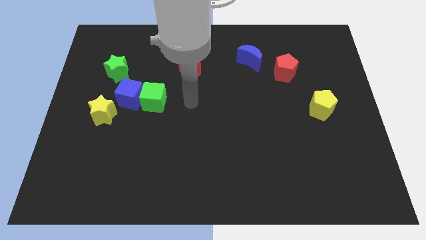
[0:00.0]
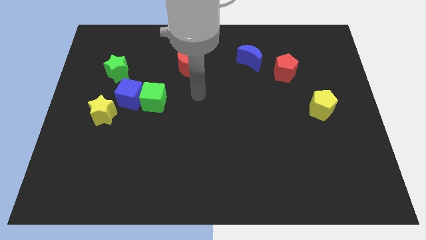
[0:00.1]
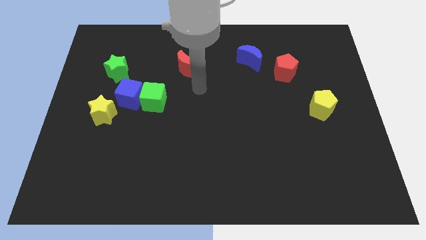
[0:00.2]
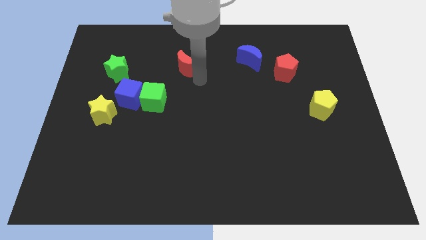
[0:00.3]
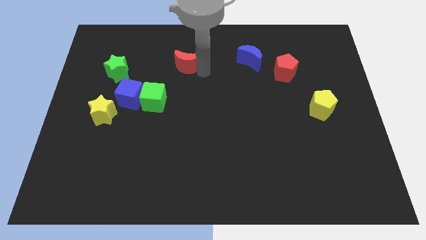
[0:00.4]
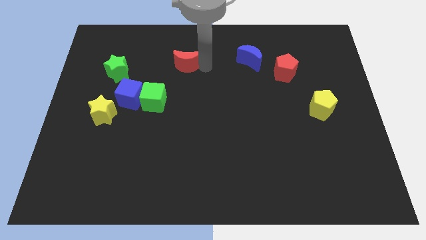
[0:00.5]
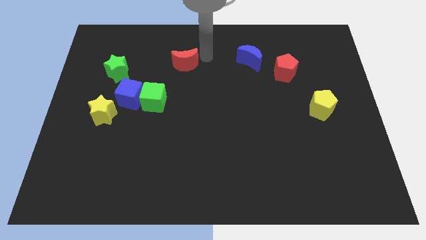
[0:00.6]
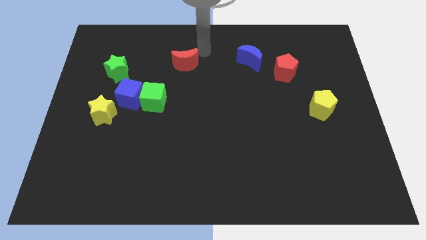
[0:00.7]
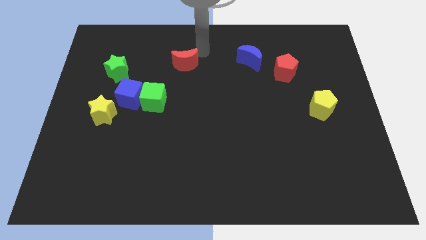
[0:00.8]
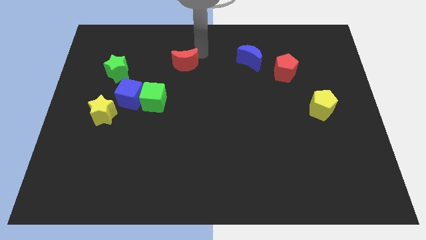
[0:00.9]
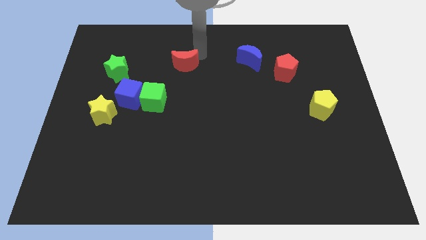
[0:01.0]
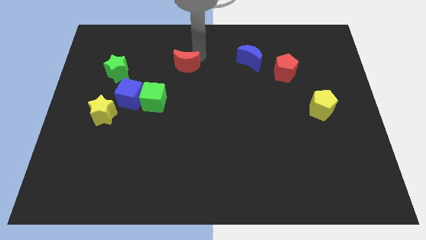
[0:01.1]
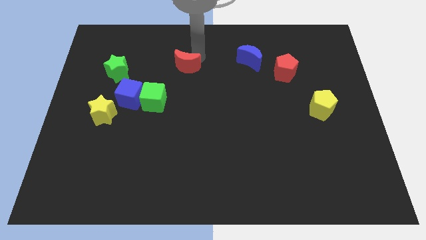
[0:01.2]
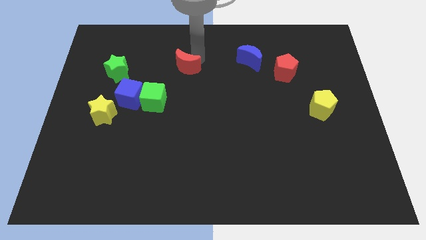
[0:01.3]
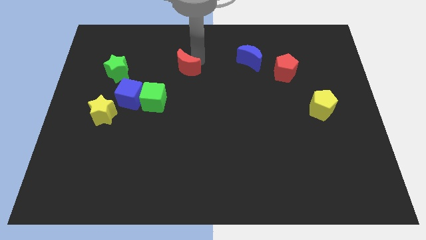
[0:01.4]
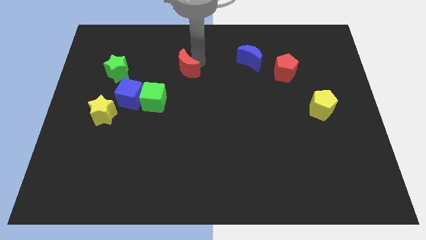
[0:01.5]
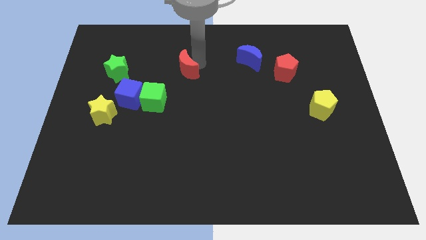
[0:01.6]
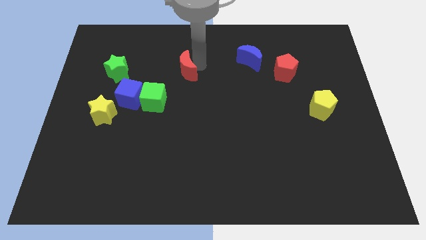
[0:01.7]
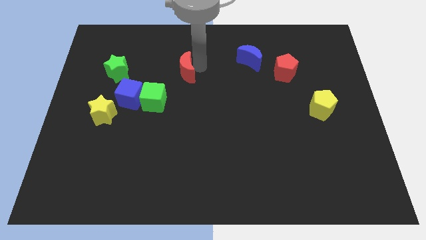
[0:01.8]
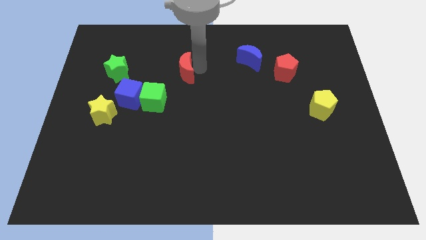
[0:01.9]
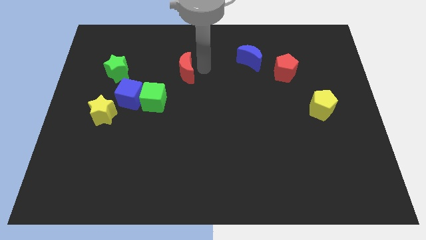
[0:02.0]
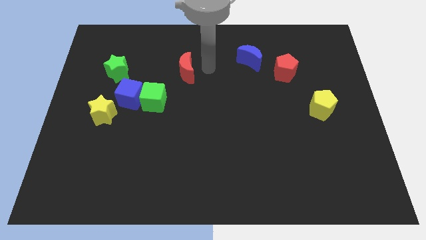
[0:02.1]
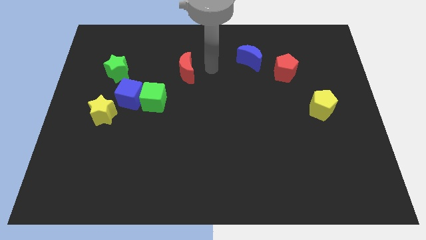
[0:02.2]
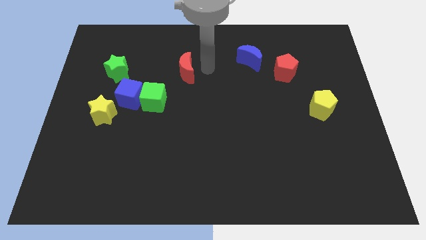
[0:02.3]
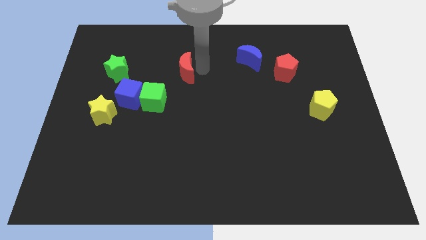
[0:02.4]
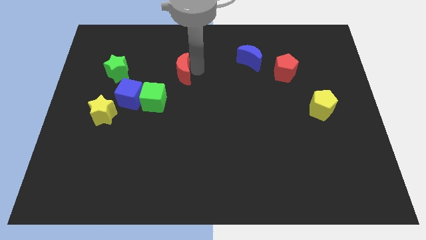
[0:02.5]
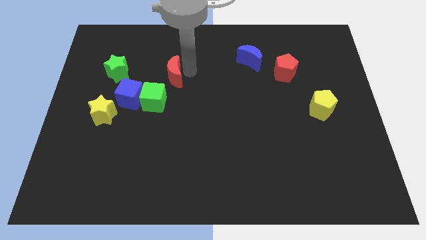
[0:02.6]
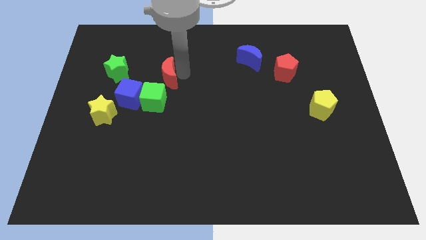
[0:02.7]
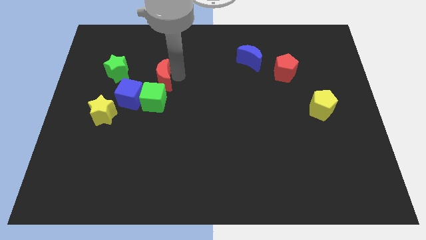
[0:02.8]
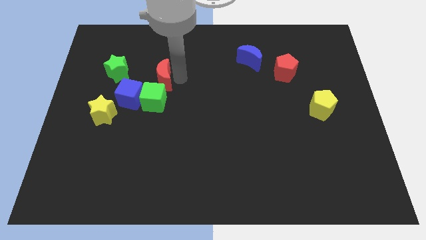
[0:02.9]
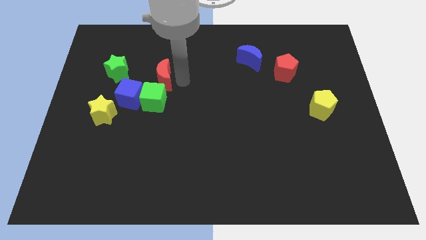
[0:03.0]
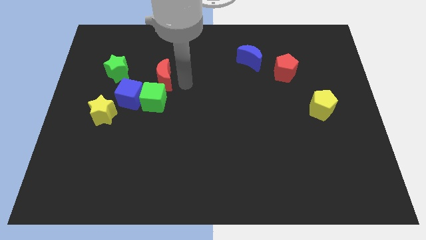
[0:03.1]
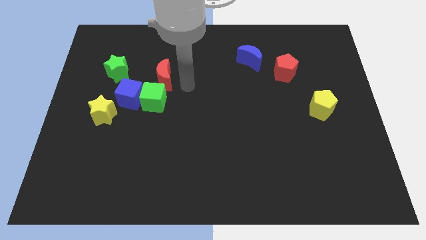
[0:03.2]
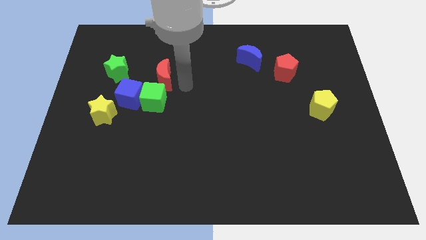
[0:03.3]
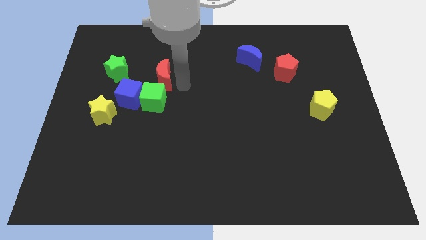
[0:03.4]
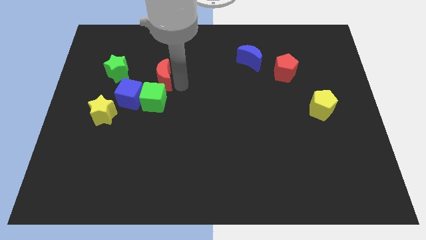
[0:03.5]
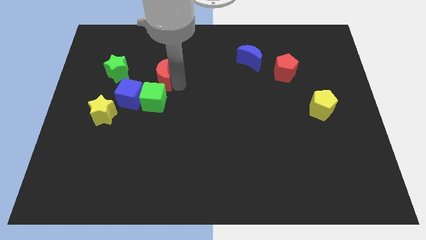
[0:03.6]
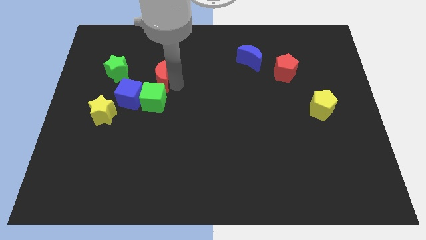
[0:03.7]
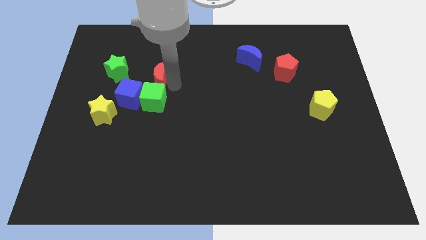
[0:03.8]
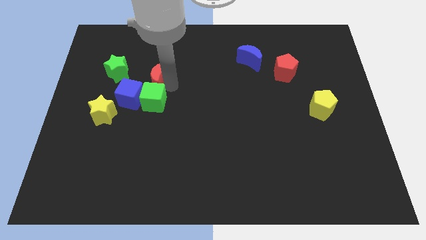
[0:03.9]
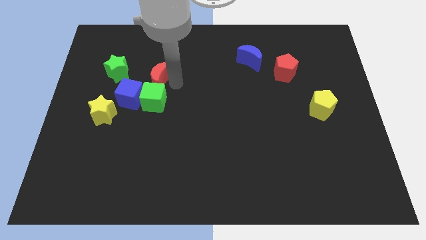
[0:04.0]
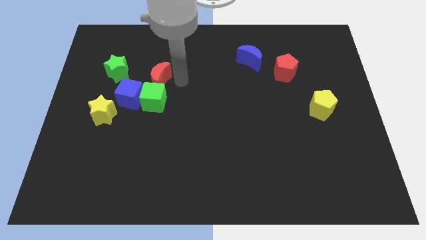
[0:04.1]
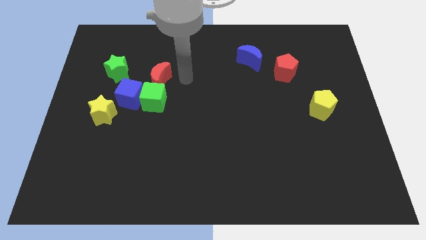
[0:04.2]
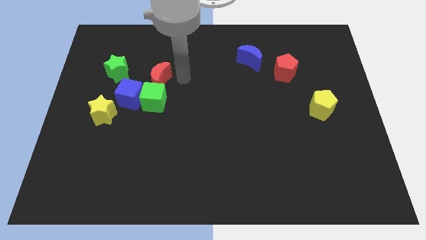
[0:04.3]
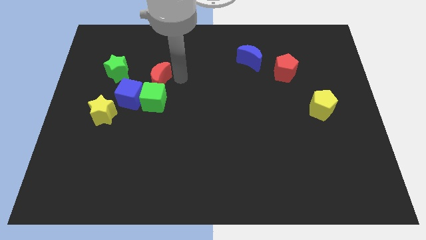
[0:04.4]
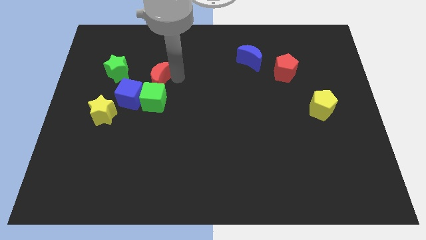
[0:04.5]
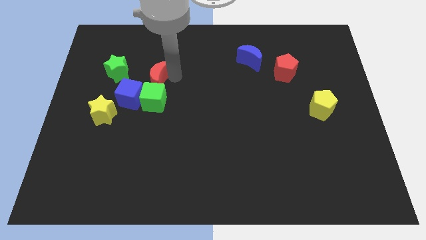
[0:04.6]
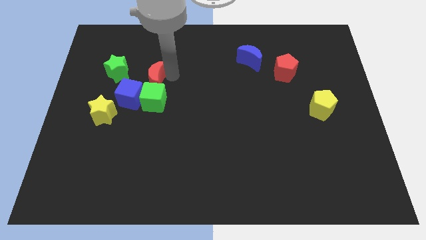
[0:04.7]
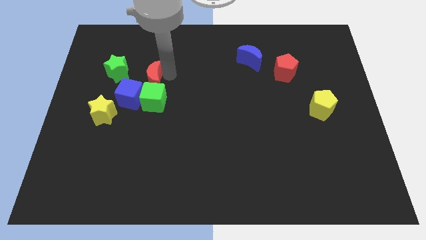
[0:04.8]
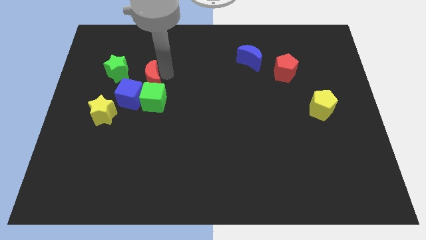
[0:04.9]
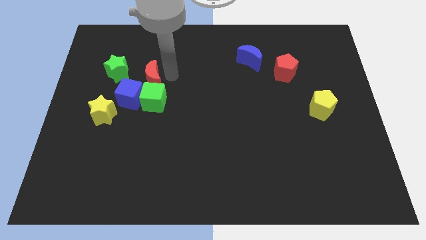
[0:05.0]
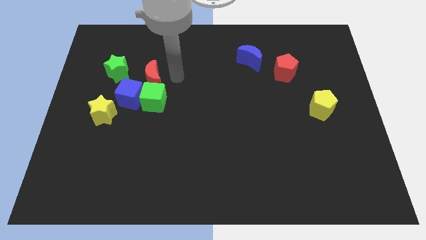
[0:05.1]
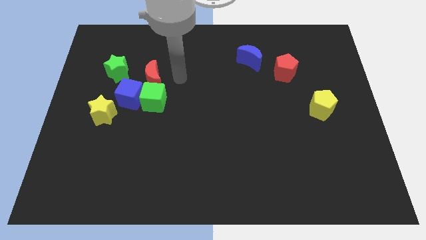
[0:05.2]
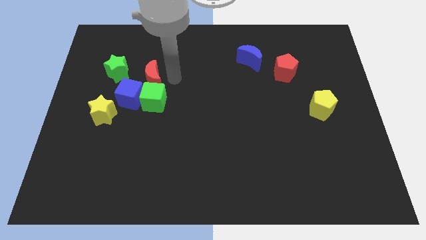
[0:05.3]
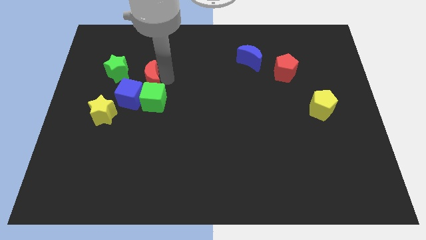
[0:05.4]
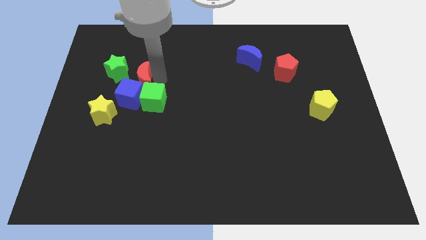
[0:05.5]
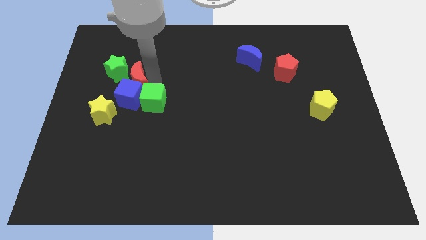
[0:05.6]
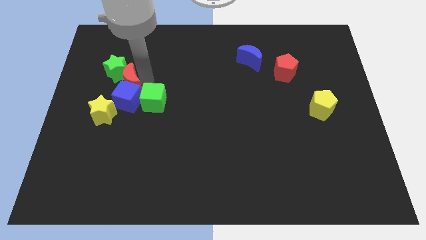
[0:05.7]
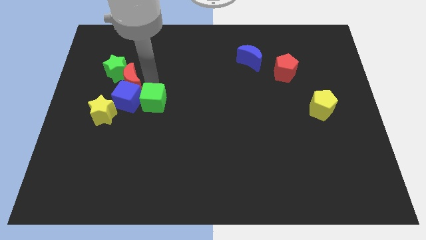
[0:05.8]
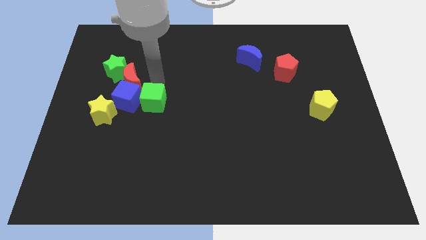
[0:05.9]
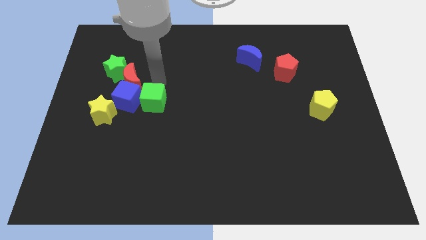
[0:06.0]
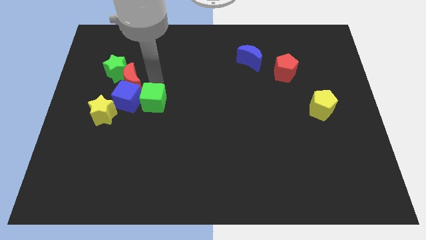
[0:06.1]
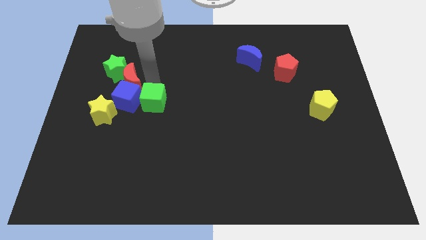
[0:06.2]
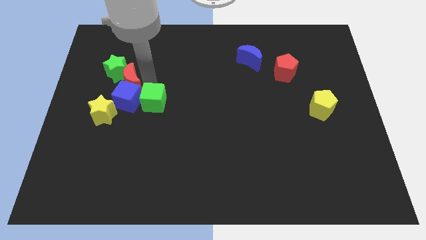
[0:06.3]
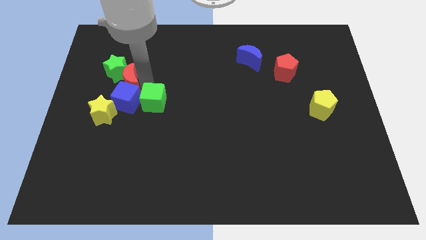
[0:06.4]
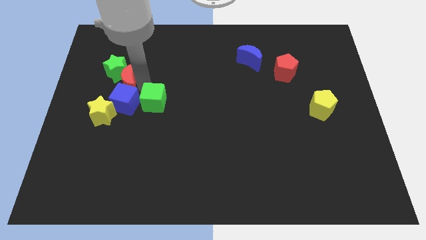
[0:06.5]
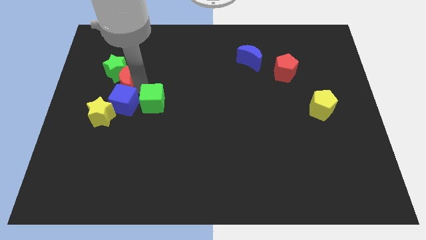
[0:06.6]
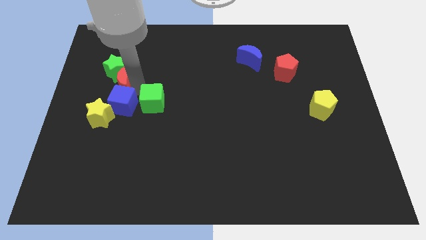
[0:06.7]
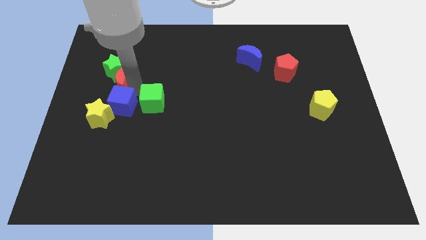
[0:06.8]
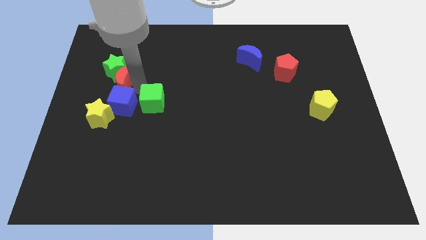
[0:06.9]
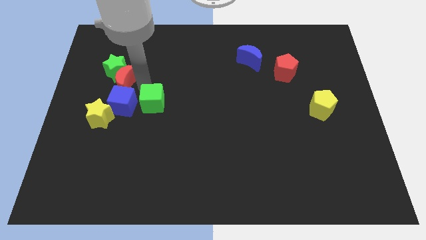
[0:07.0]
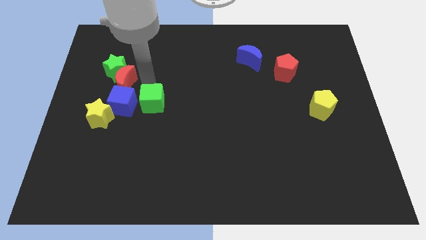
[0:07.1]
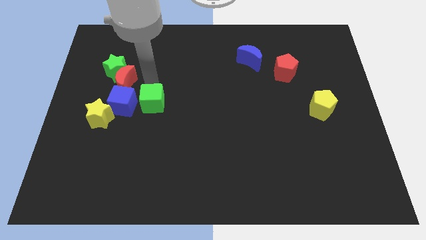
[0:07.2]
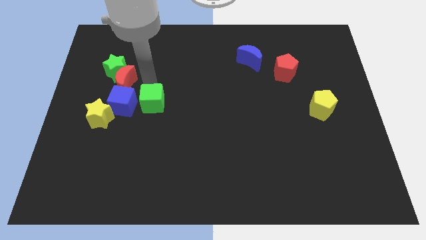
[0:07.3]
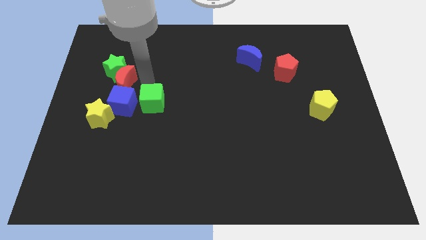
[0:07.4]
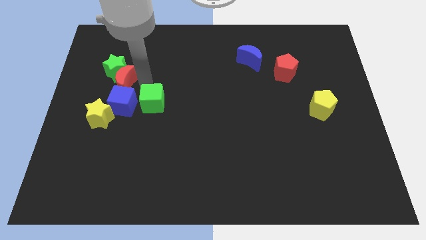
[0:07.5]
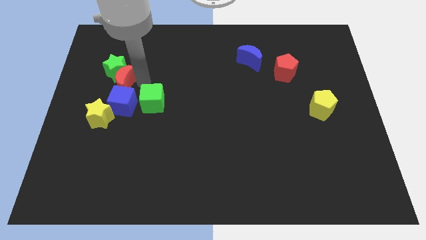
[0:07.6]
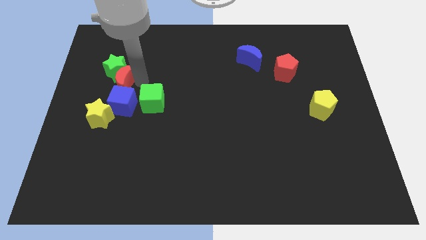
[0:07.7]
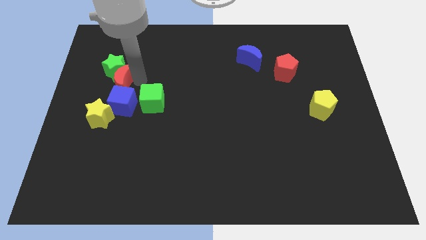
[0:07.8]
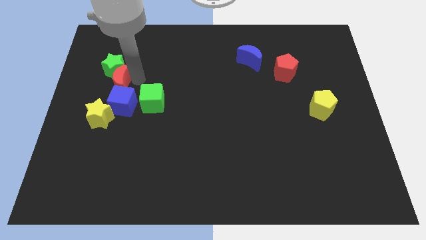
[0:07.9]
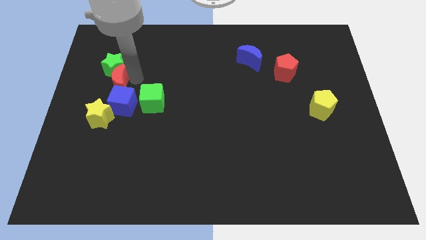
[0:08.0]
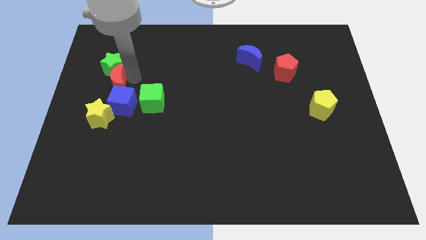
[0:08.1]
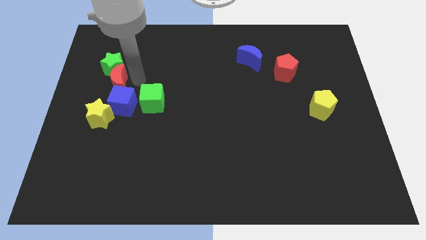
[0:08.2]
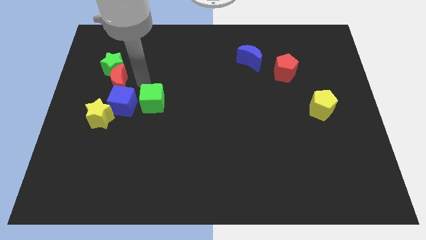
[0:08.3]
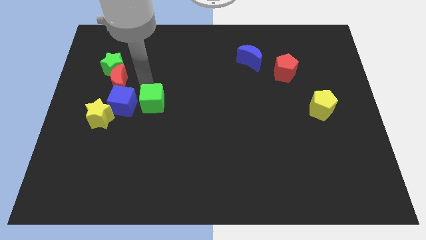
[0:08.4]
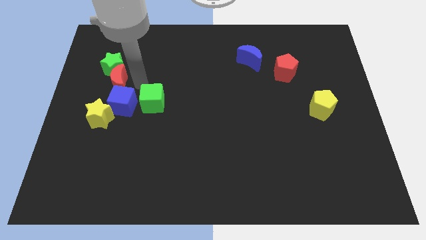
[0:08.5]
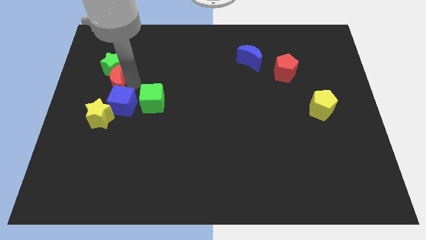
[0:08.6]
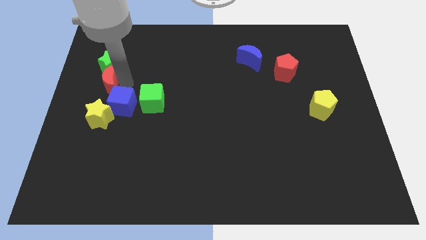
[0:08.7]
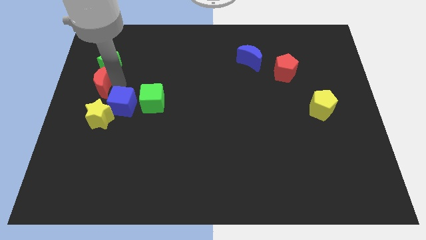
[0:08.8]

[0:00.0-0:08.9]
put the red moon to the left side
